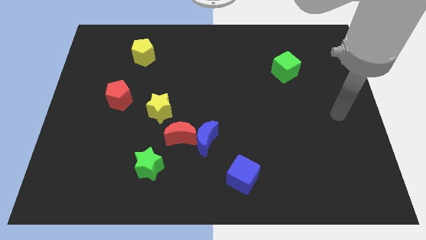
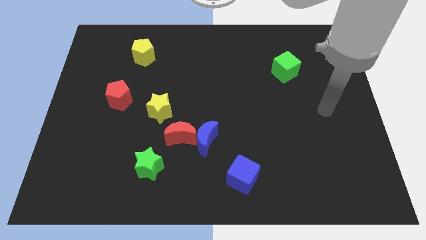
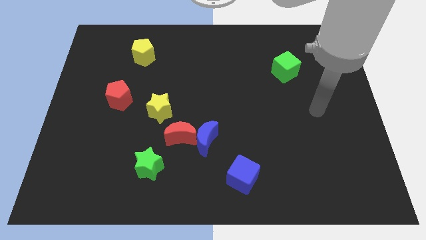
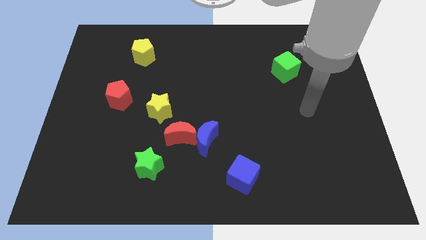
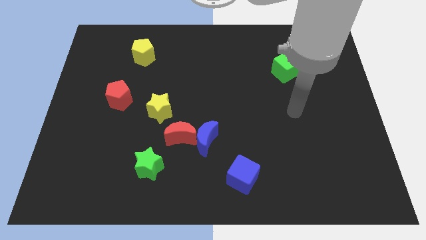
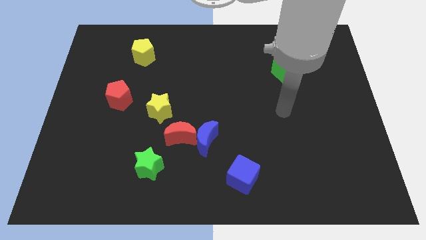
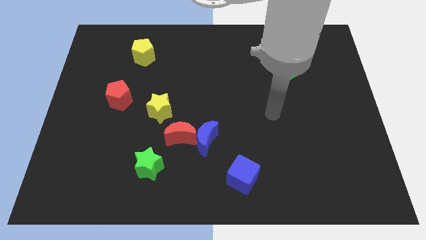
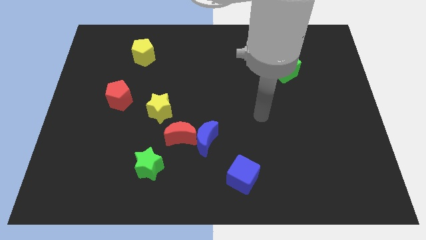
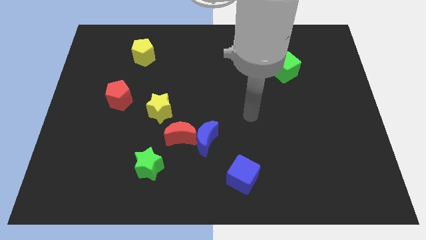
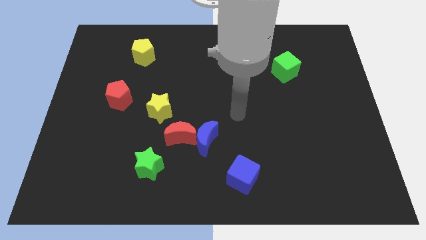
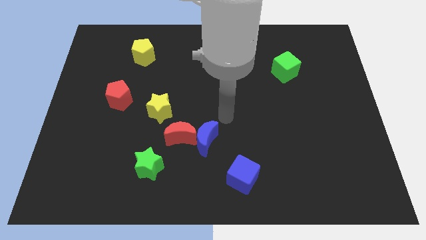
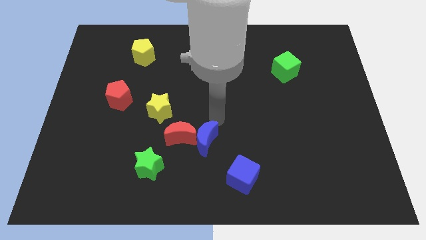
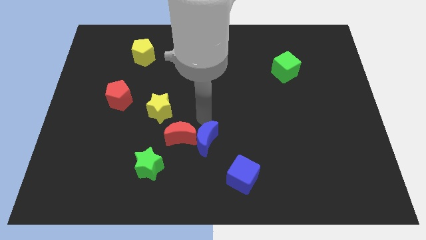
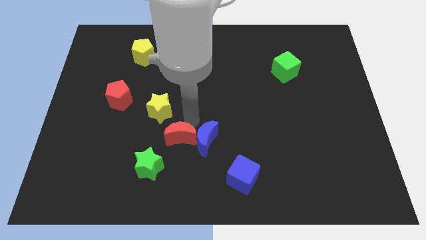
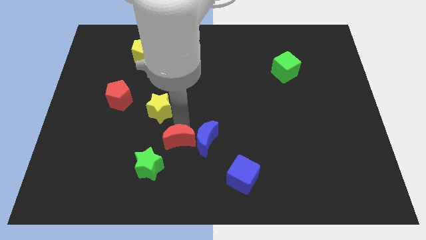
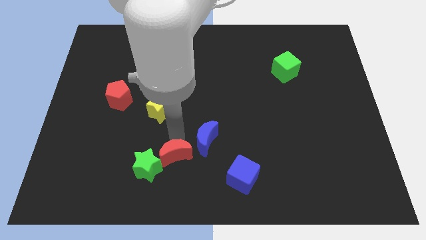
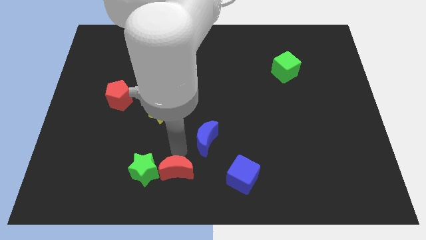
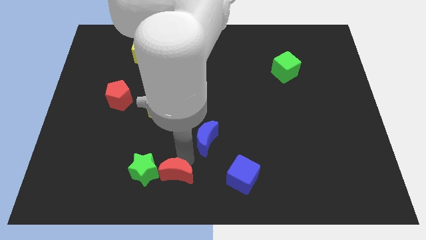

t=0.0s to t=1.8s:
separate the blue moon from the red moon

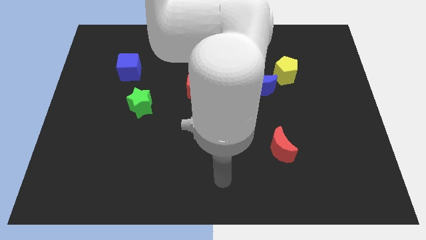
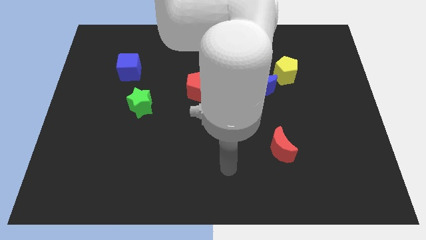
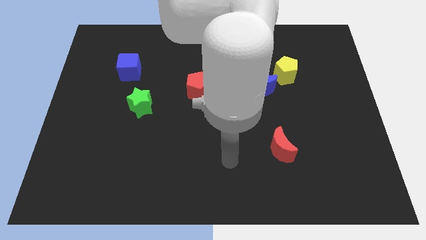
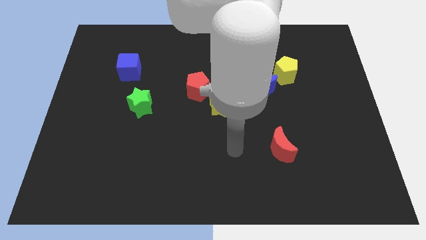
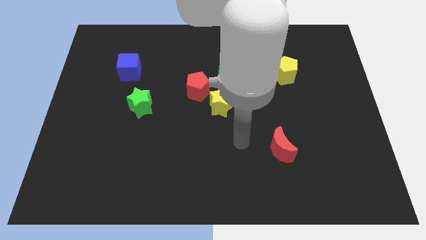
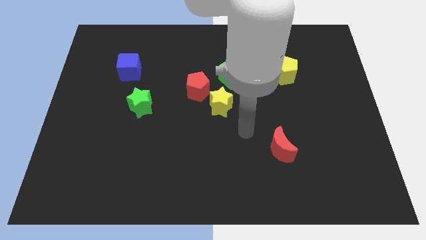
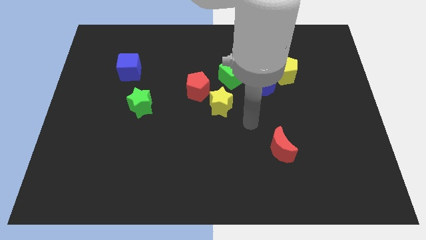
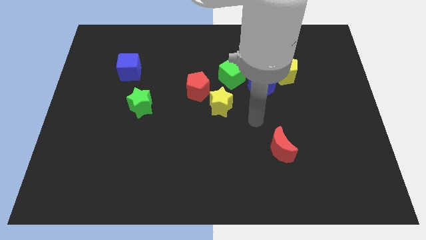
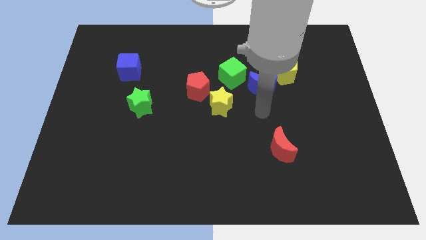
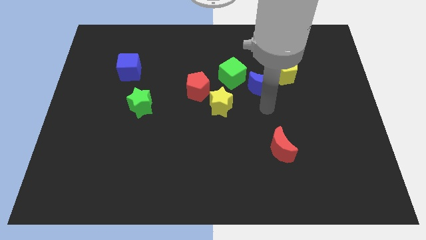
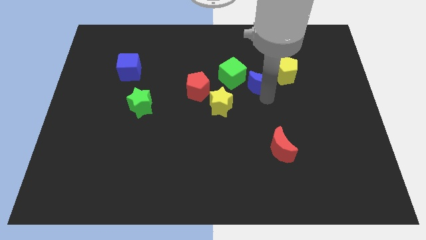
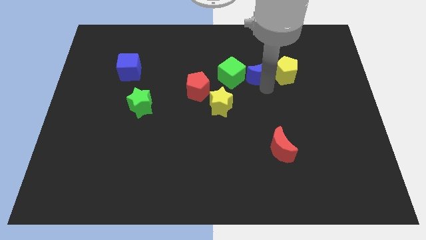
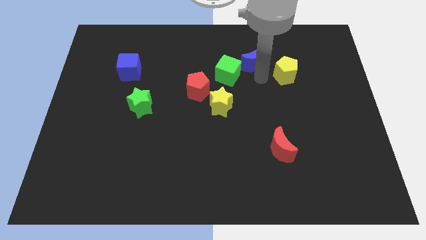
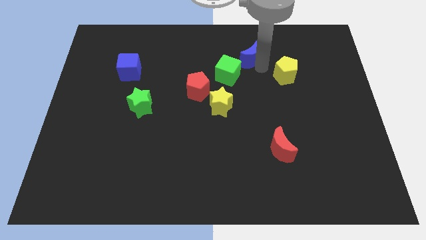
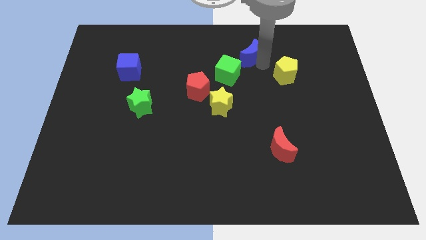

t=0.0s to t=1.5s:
separate the yellow pentagon from the blue moon

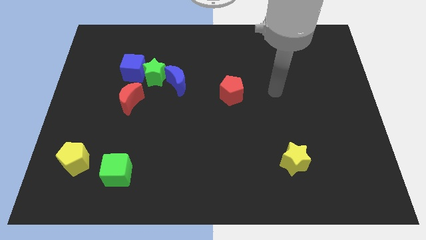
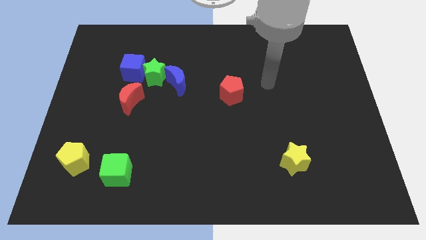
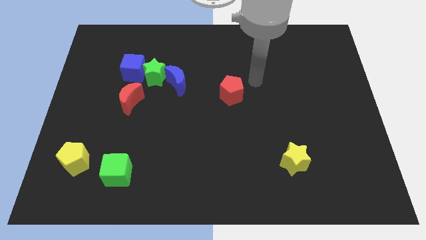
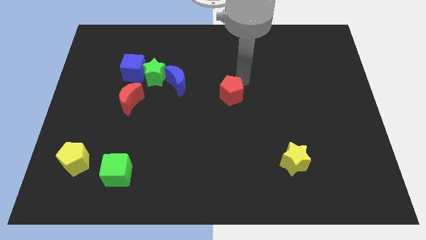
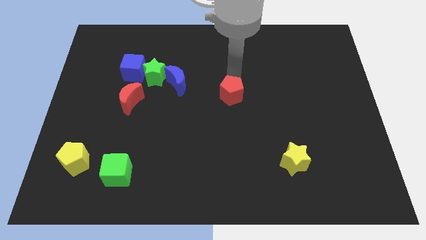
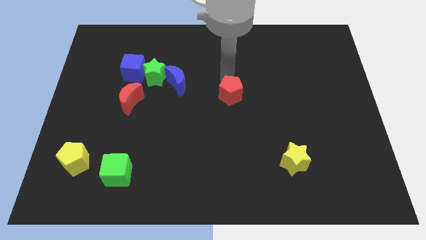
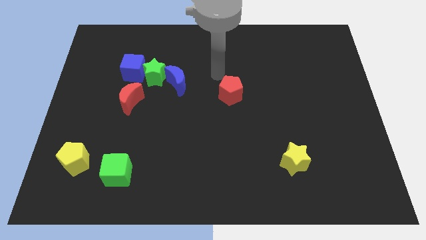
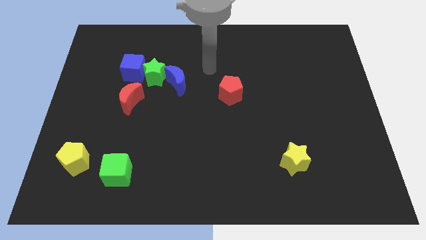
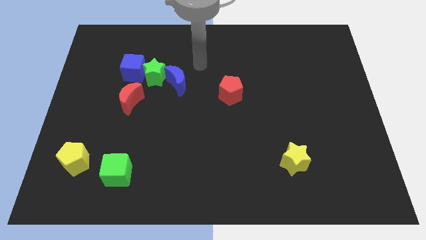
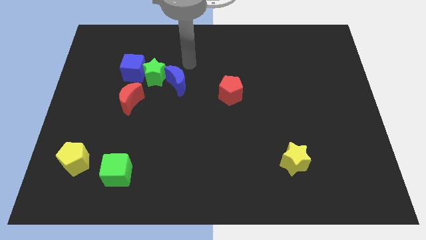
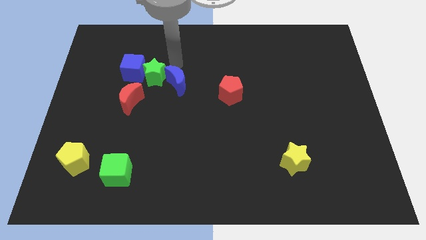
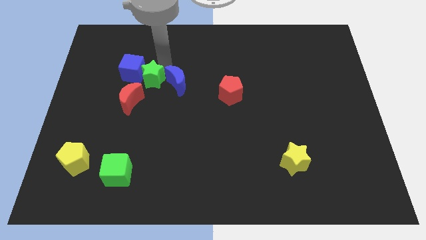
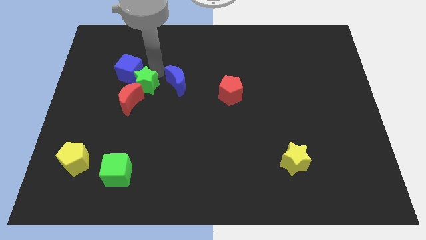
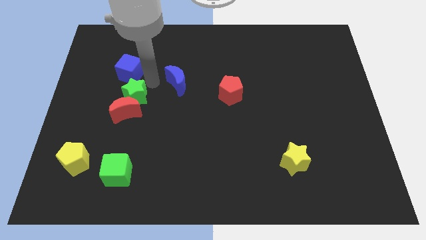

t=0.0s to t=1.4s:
pull the blue moon apart from the green star

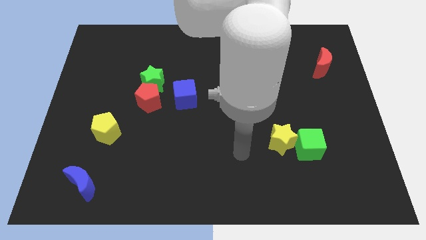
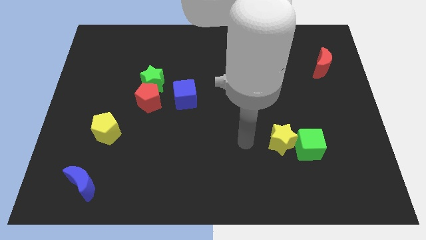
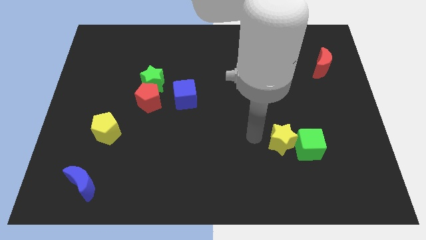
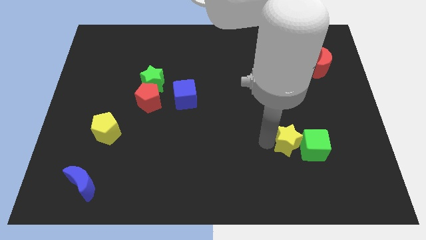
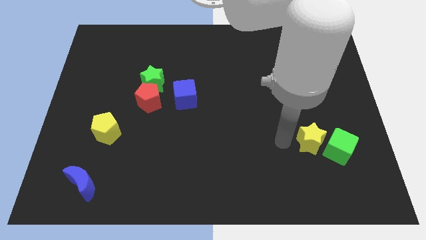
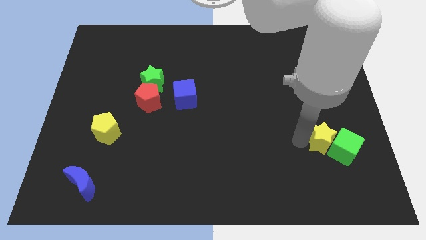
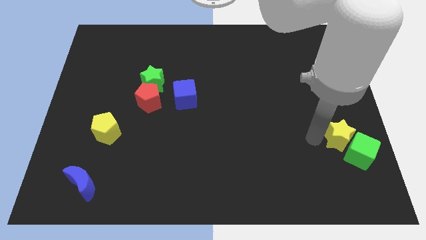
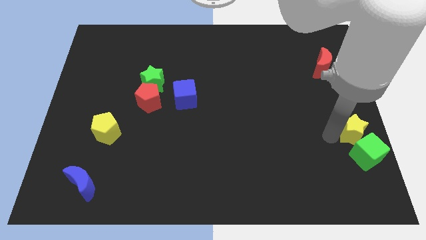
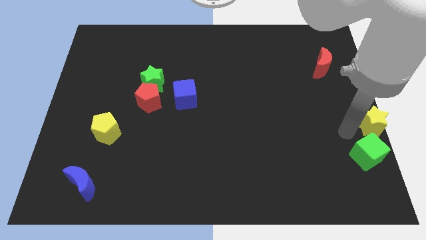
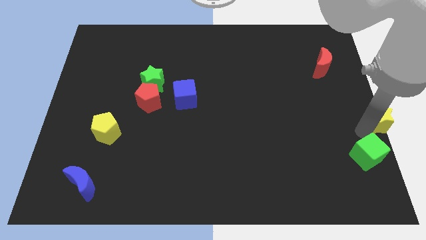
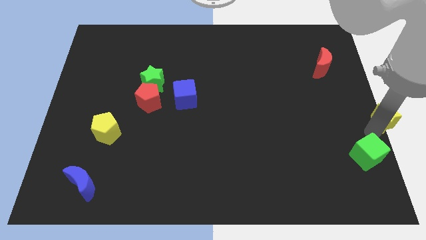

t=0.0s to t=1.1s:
pull the green cube apart from the yellow star

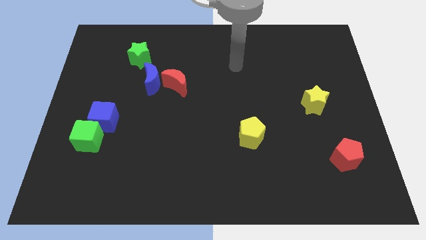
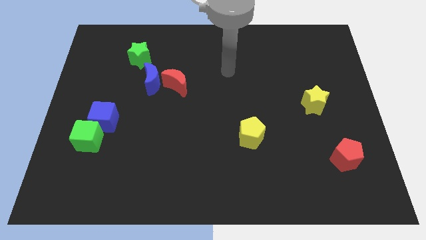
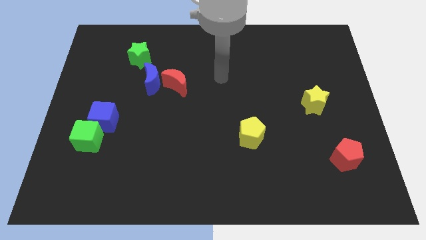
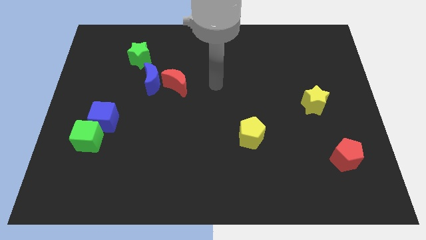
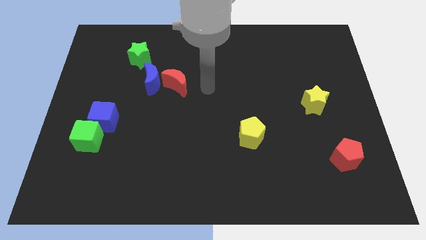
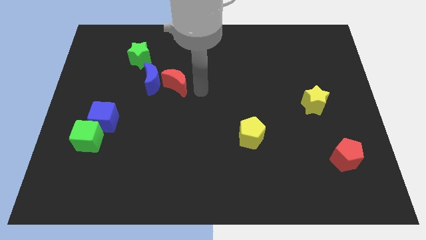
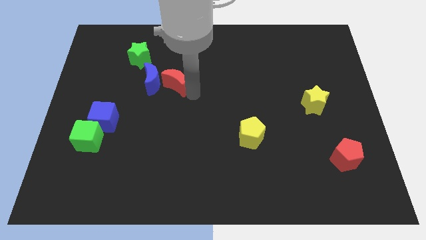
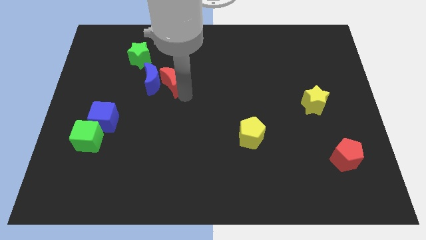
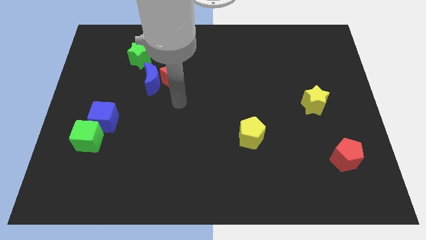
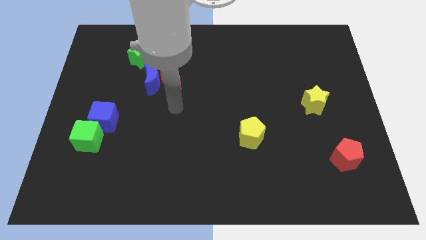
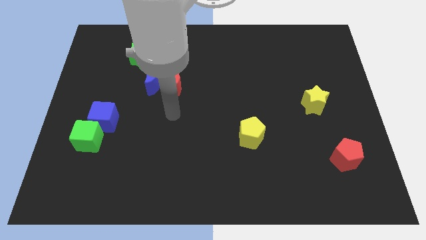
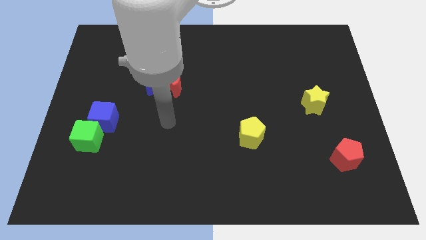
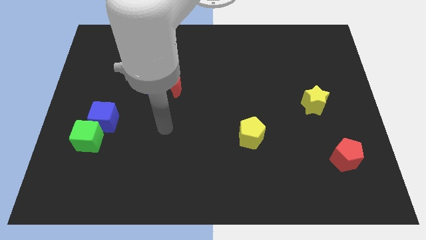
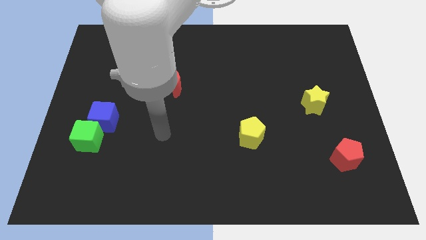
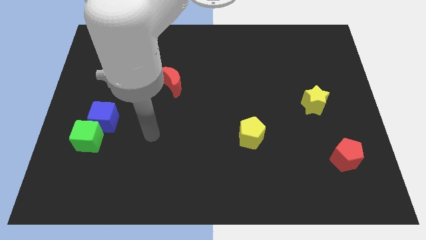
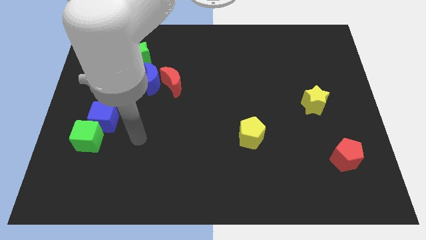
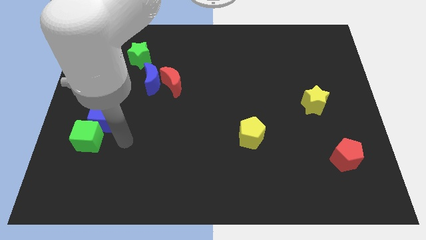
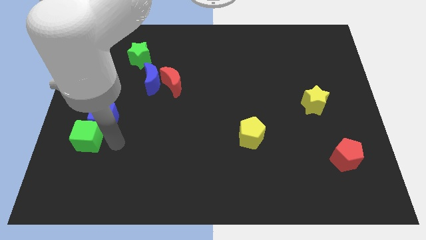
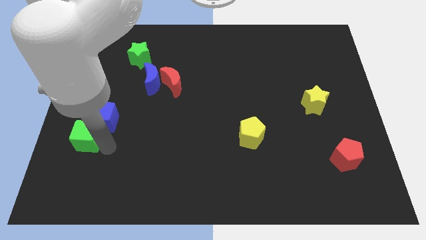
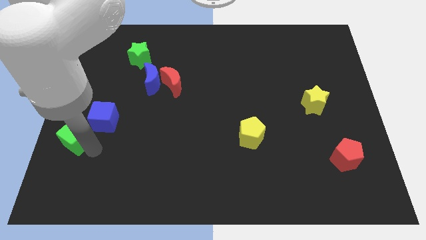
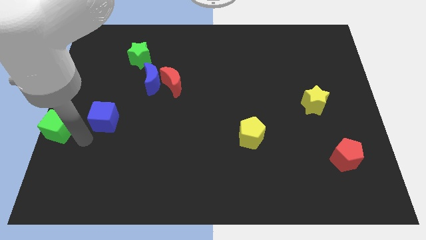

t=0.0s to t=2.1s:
separate the blue cube from the green cube

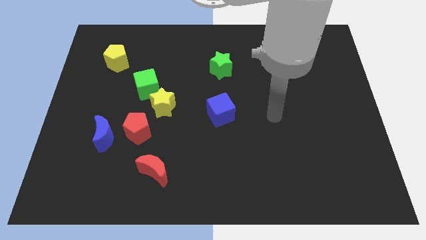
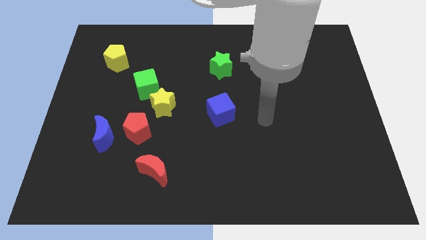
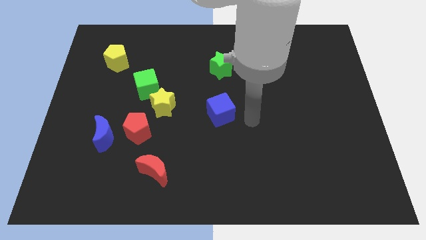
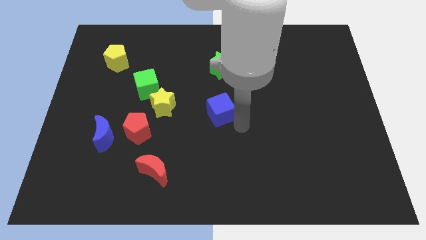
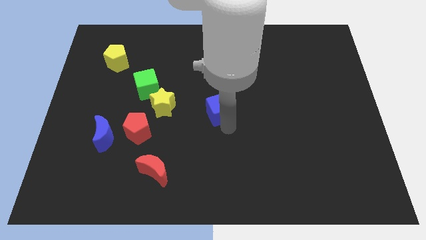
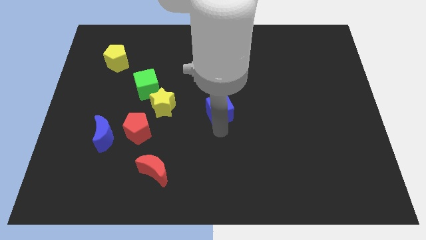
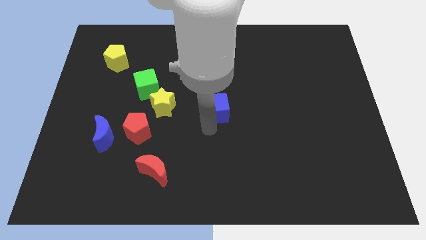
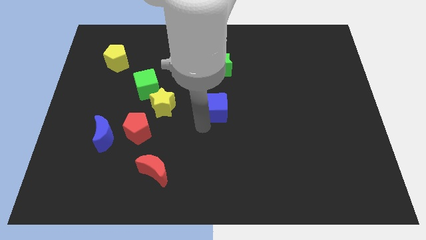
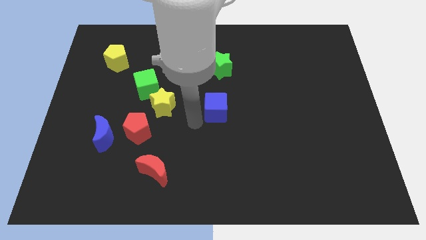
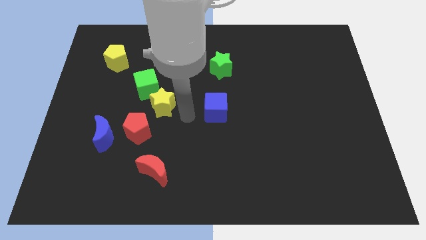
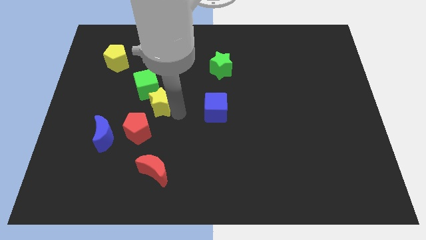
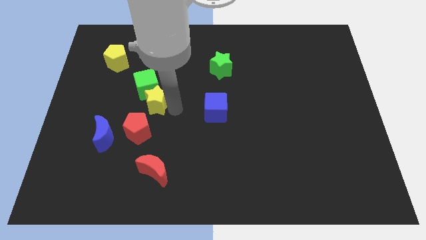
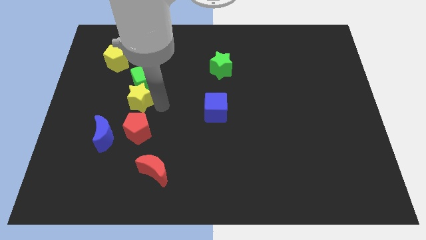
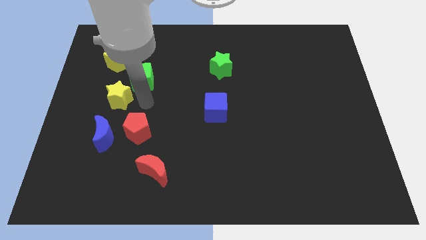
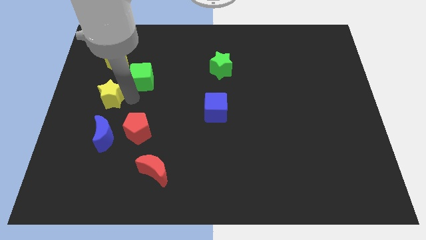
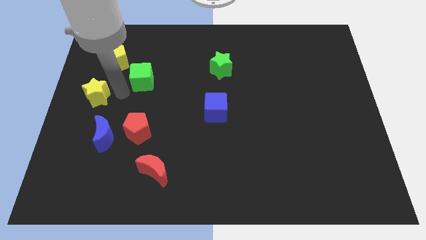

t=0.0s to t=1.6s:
separate the green cube from the yellow star
